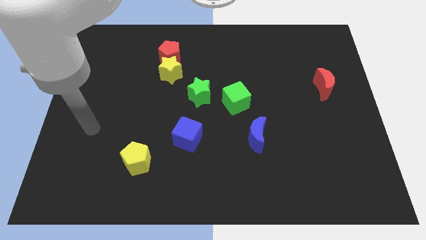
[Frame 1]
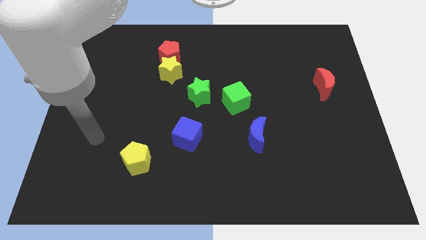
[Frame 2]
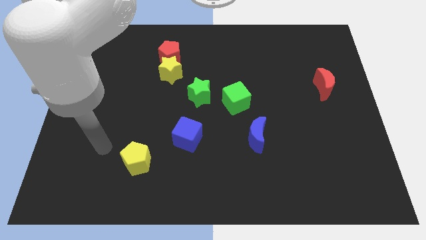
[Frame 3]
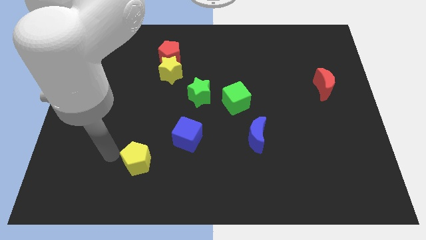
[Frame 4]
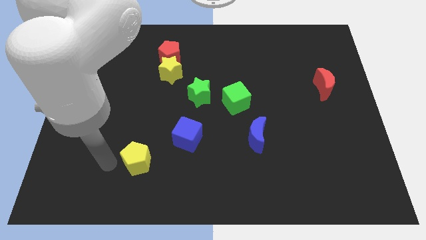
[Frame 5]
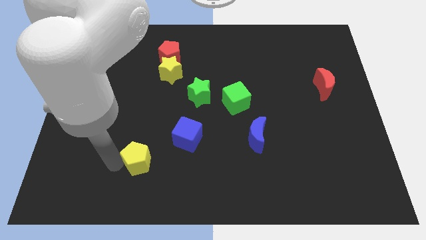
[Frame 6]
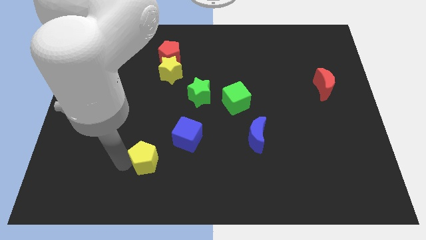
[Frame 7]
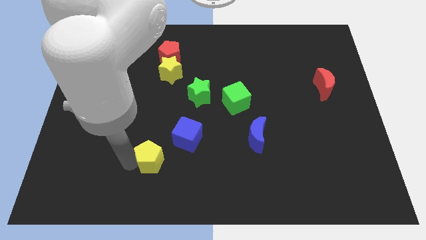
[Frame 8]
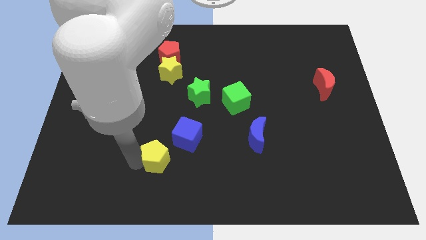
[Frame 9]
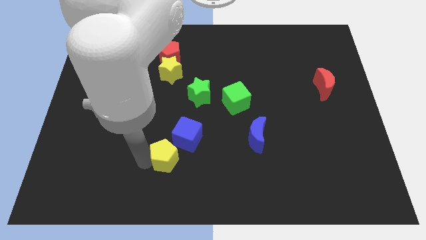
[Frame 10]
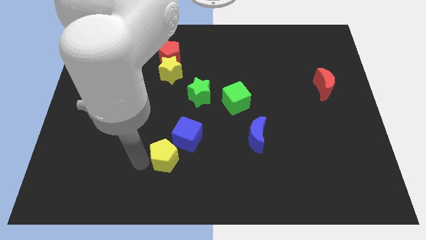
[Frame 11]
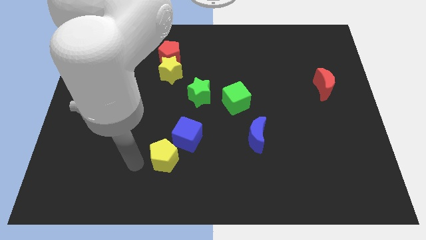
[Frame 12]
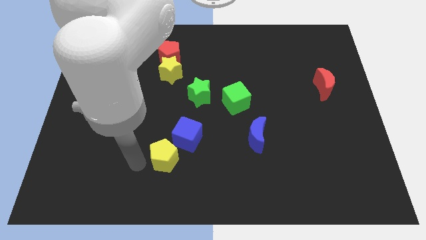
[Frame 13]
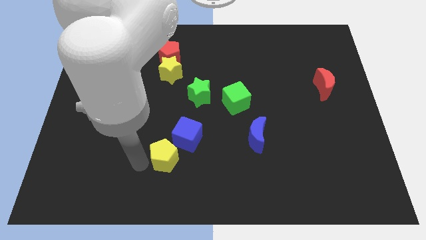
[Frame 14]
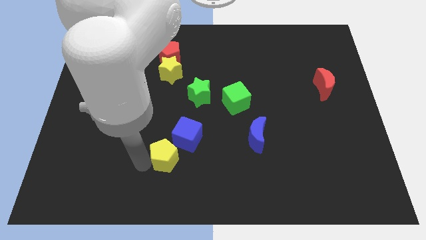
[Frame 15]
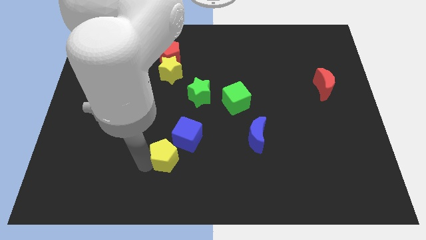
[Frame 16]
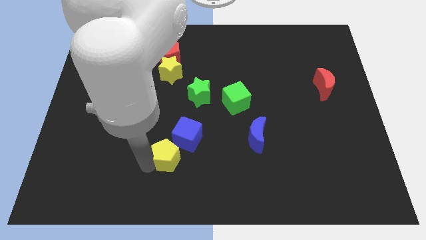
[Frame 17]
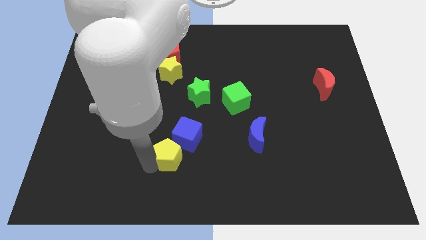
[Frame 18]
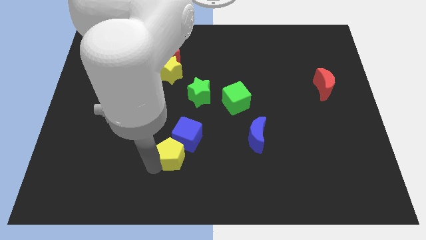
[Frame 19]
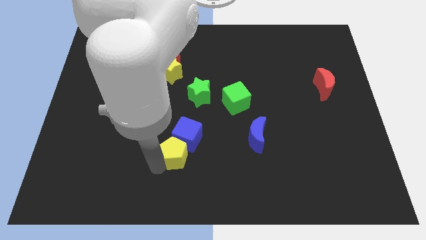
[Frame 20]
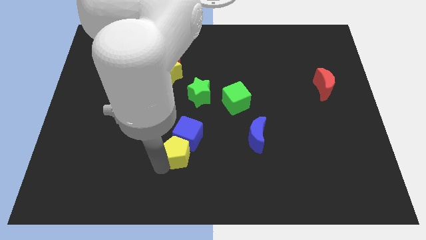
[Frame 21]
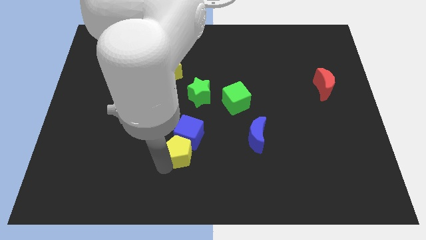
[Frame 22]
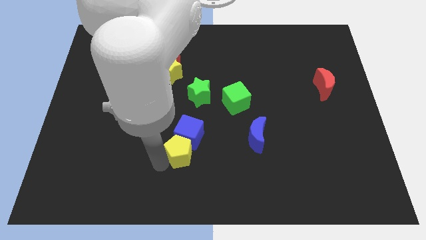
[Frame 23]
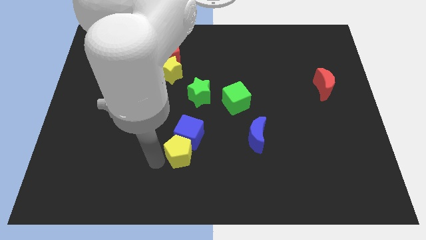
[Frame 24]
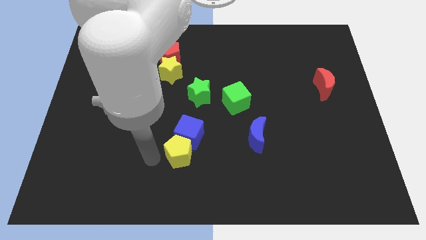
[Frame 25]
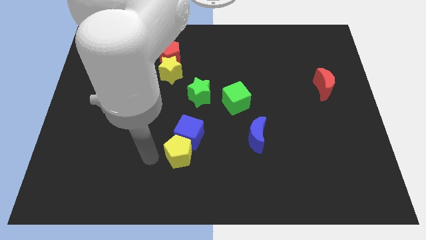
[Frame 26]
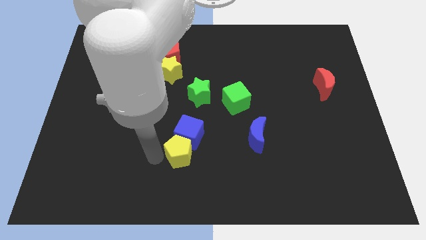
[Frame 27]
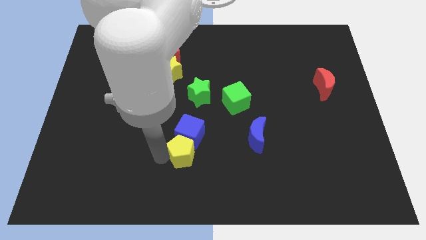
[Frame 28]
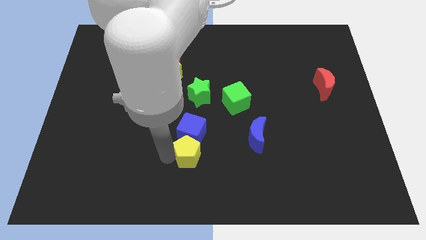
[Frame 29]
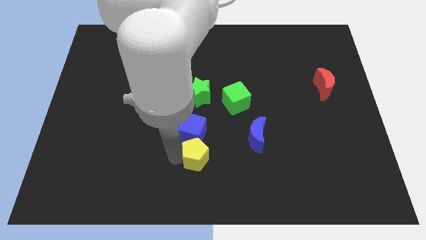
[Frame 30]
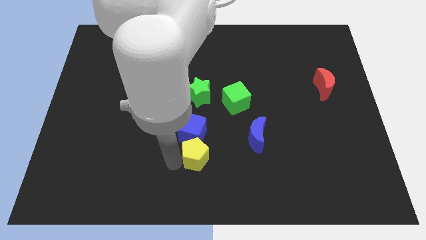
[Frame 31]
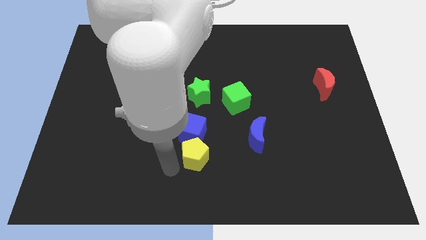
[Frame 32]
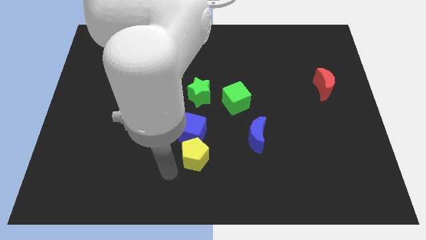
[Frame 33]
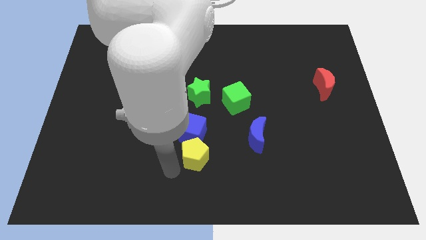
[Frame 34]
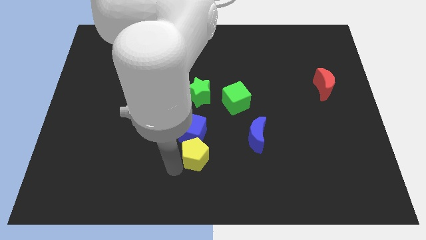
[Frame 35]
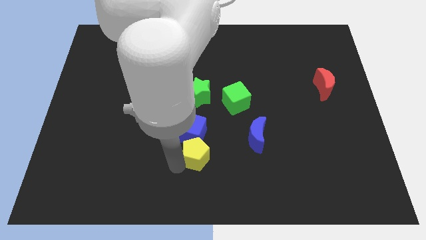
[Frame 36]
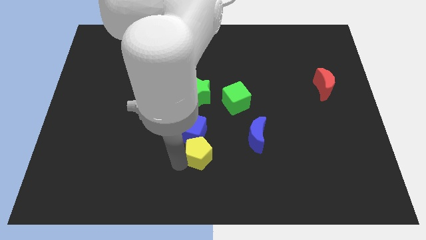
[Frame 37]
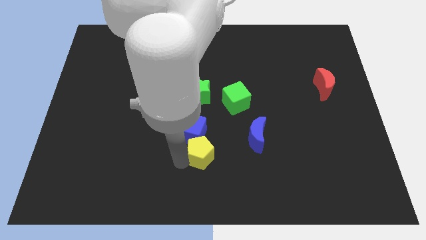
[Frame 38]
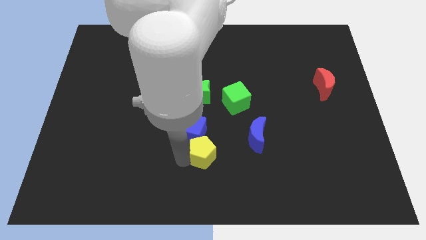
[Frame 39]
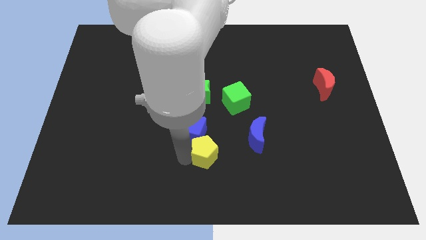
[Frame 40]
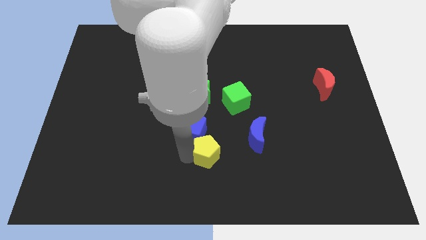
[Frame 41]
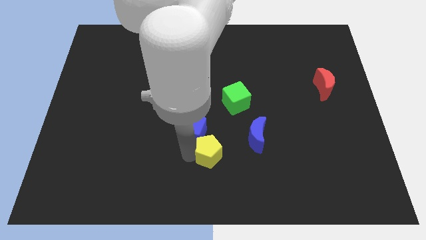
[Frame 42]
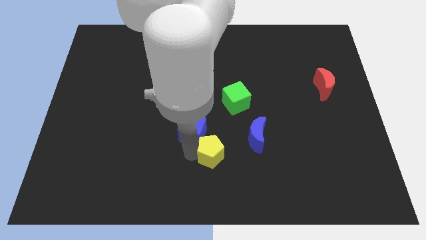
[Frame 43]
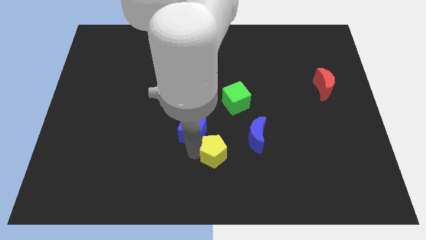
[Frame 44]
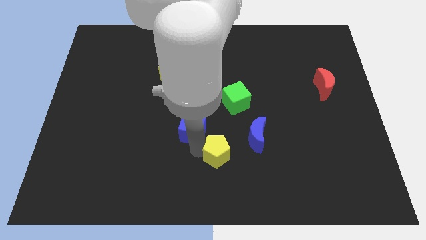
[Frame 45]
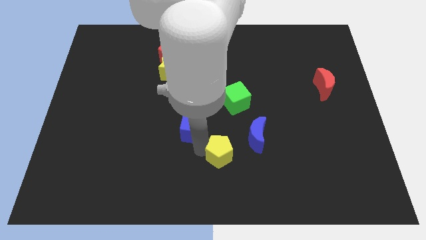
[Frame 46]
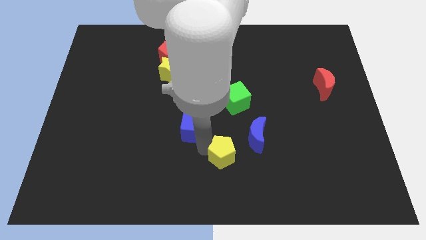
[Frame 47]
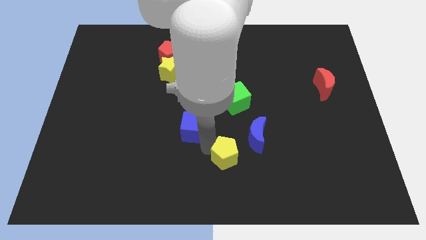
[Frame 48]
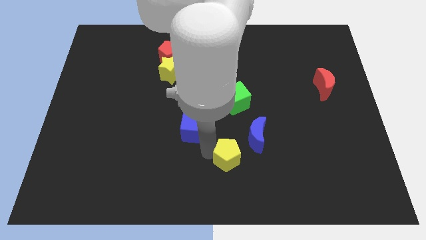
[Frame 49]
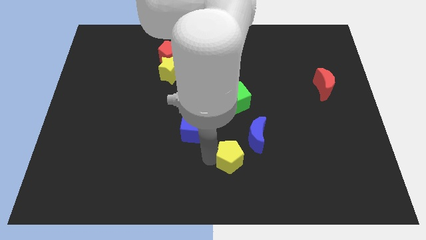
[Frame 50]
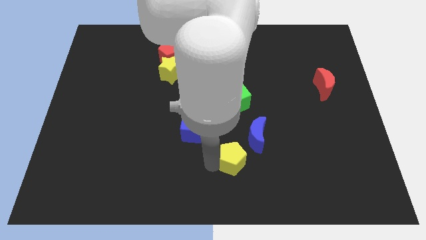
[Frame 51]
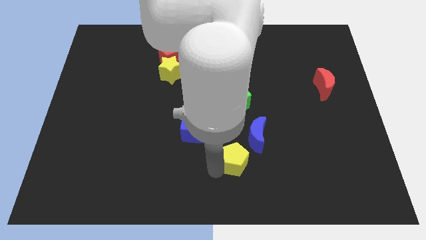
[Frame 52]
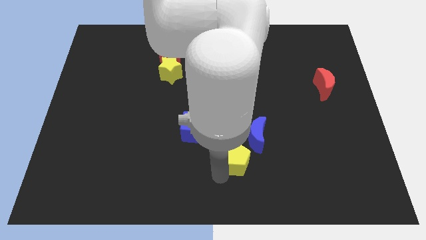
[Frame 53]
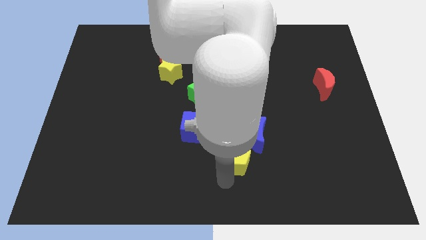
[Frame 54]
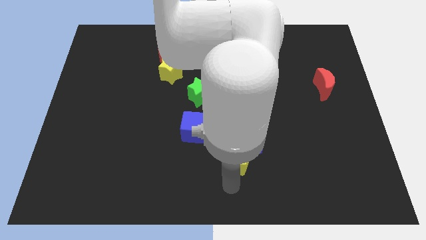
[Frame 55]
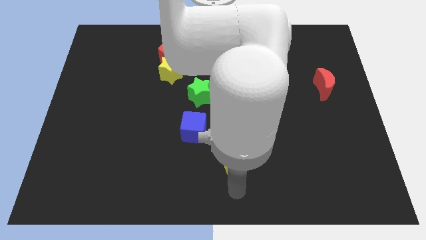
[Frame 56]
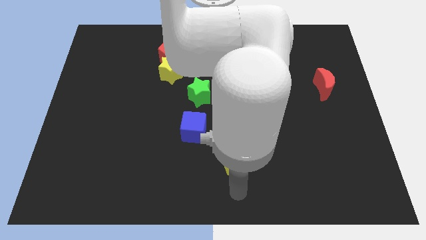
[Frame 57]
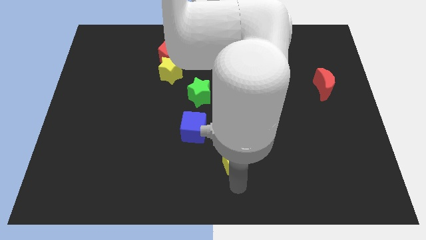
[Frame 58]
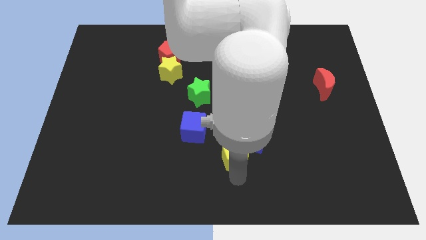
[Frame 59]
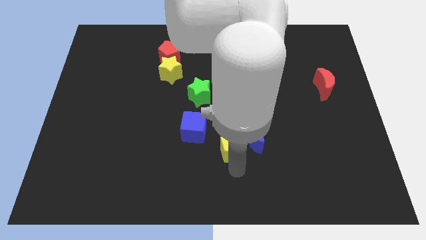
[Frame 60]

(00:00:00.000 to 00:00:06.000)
put the yellow pentagon towards the blue moon

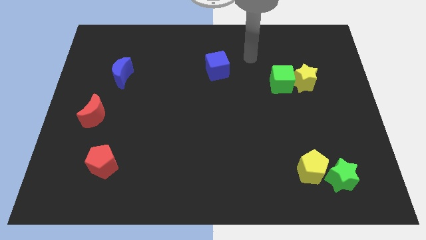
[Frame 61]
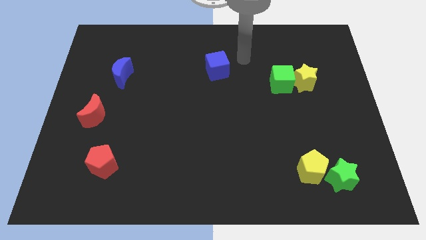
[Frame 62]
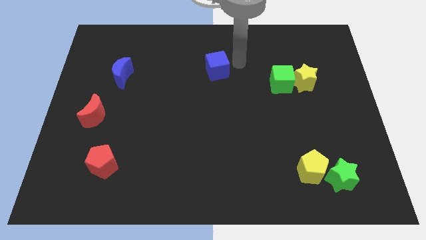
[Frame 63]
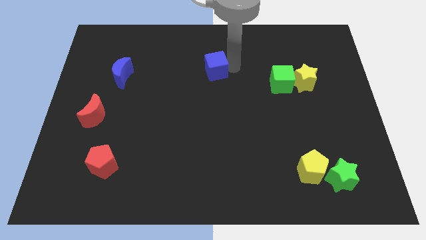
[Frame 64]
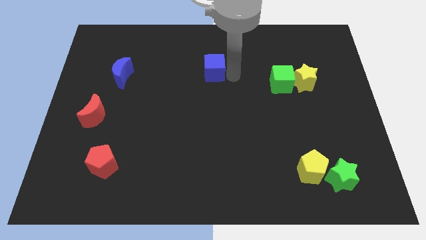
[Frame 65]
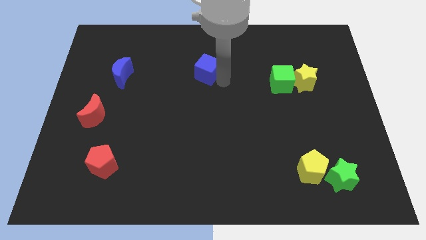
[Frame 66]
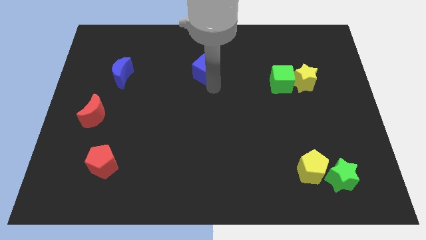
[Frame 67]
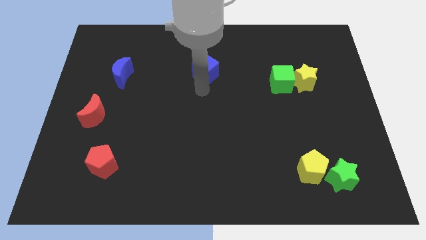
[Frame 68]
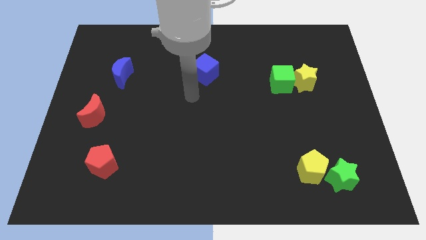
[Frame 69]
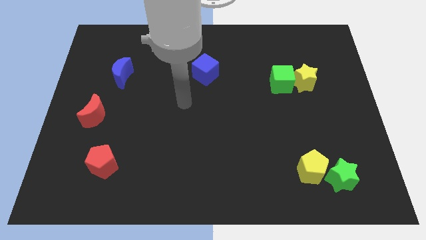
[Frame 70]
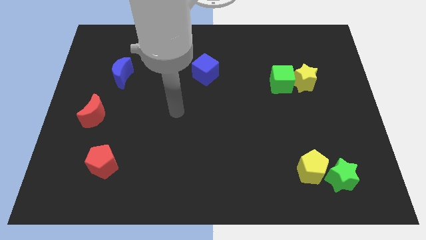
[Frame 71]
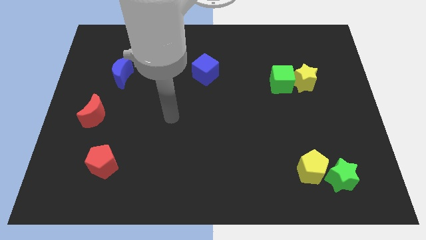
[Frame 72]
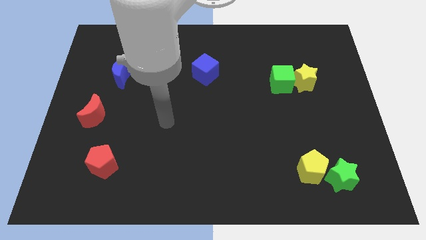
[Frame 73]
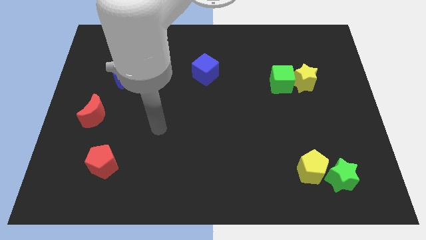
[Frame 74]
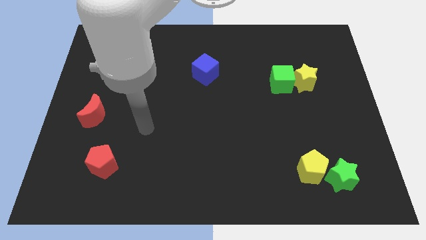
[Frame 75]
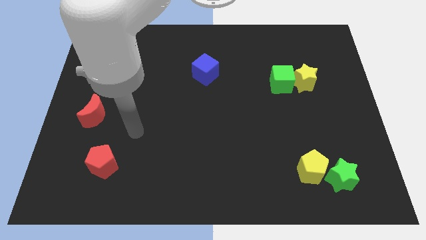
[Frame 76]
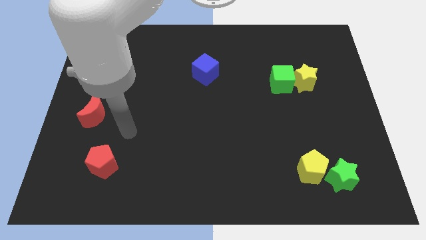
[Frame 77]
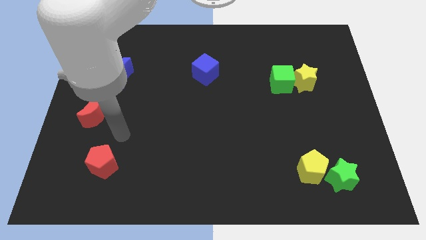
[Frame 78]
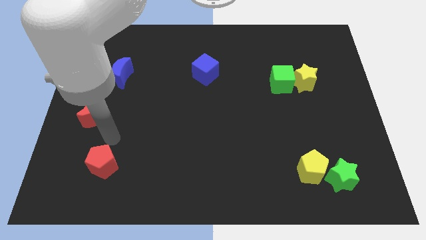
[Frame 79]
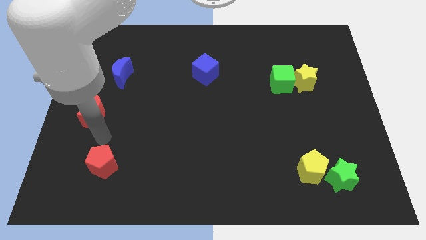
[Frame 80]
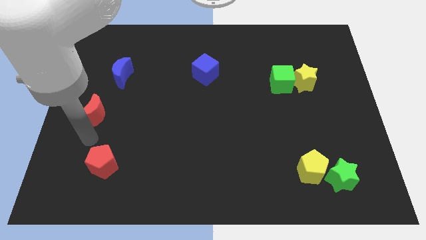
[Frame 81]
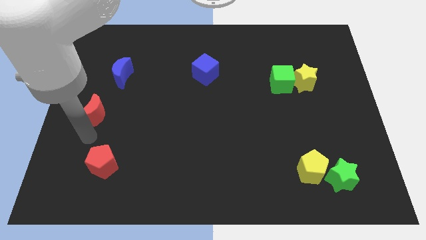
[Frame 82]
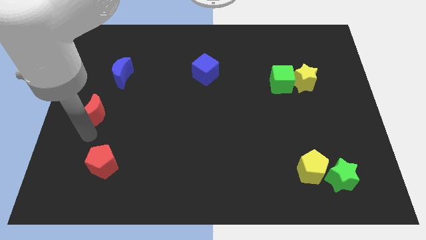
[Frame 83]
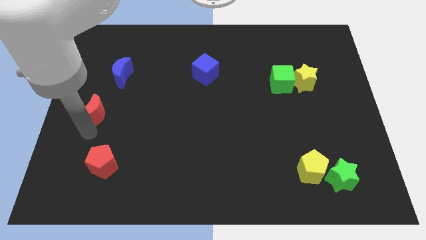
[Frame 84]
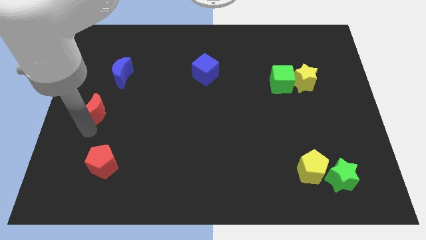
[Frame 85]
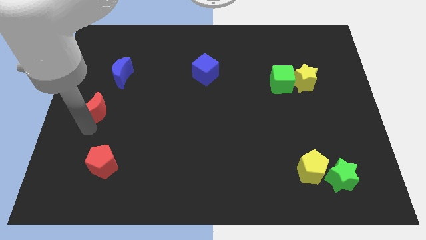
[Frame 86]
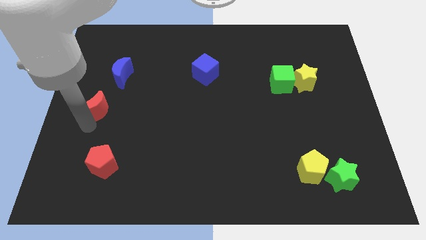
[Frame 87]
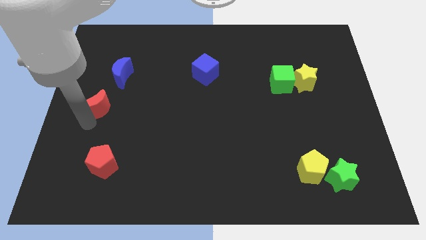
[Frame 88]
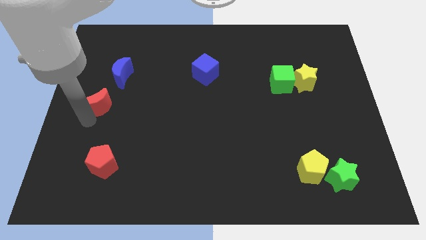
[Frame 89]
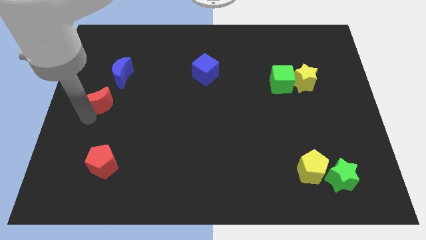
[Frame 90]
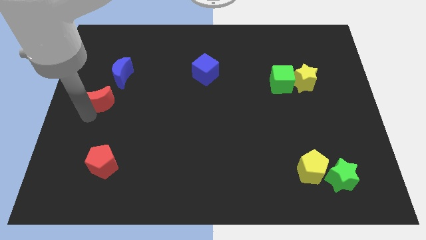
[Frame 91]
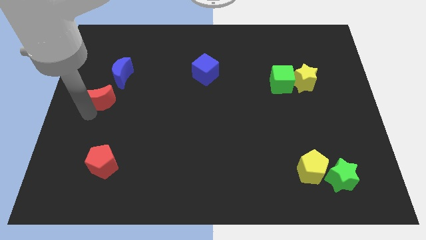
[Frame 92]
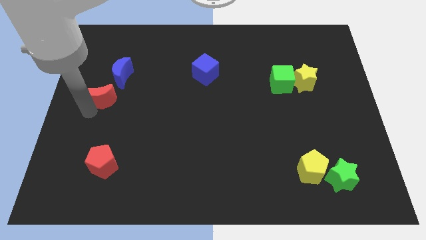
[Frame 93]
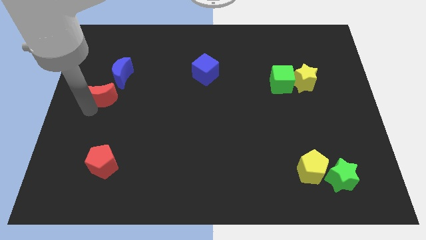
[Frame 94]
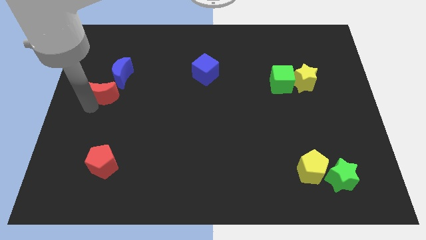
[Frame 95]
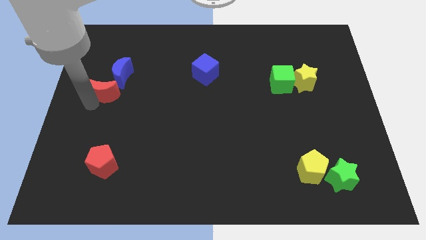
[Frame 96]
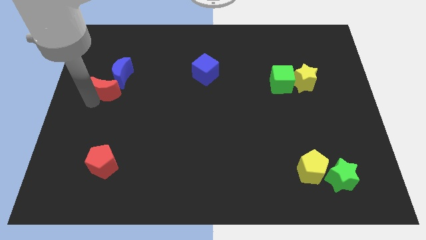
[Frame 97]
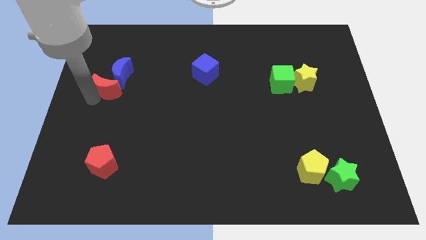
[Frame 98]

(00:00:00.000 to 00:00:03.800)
move the red moon next to the blue moon
